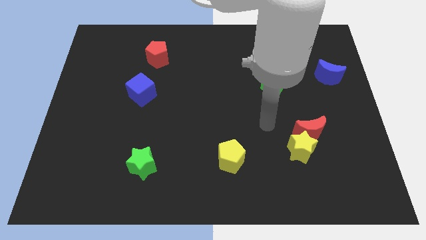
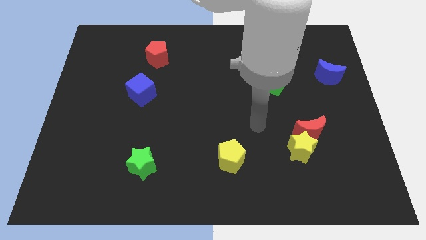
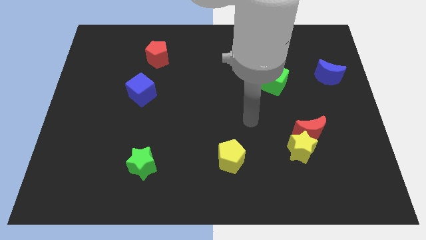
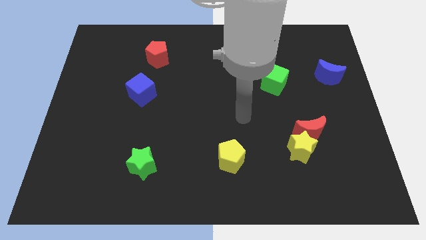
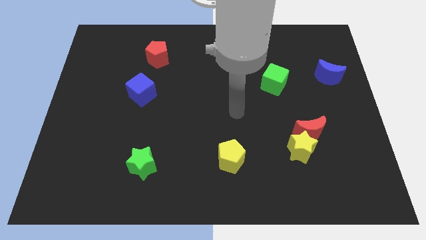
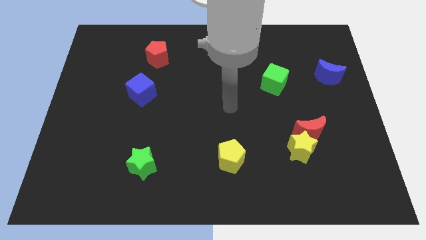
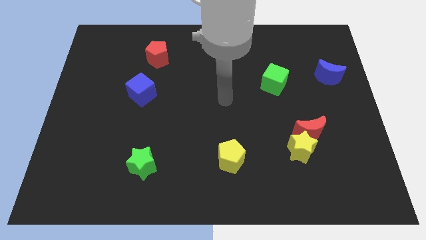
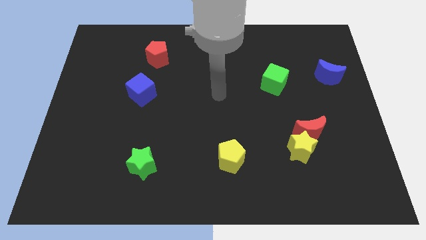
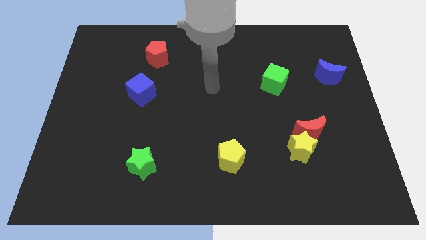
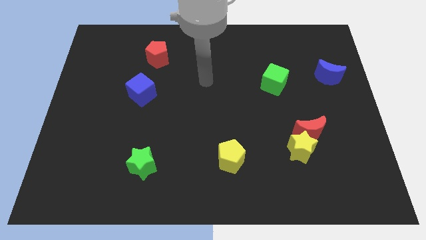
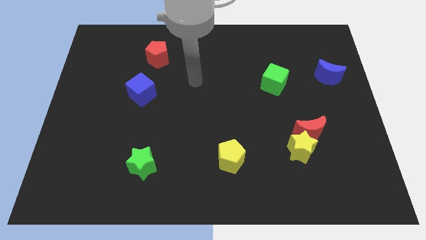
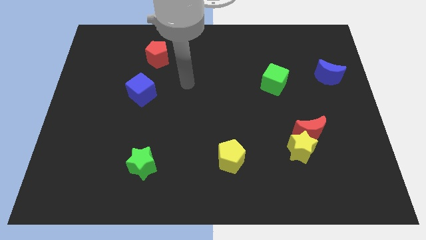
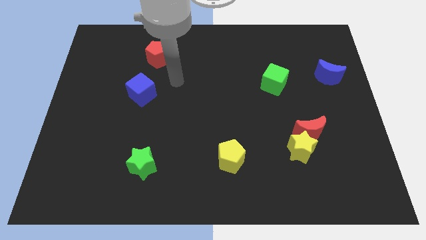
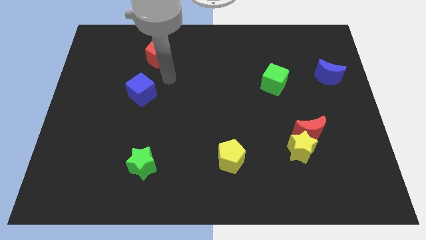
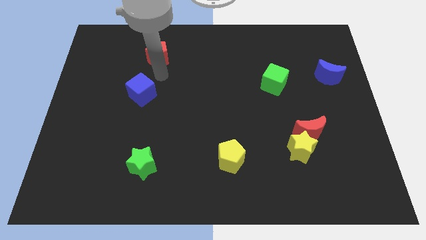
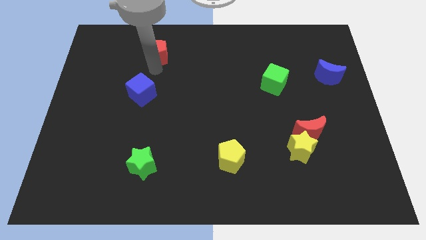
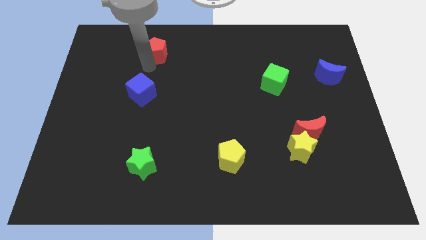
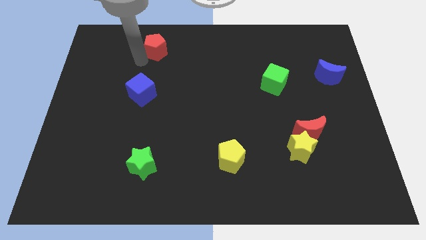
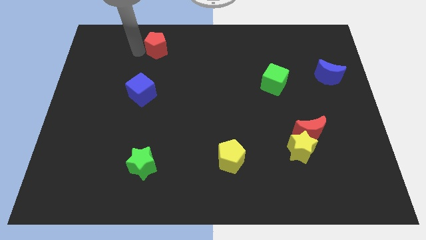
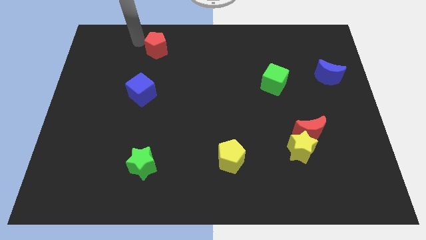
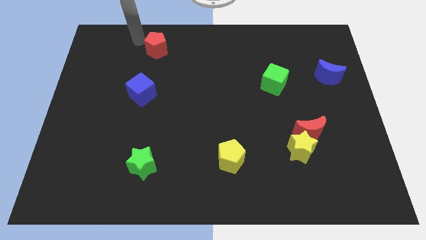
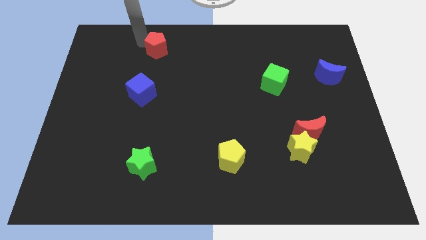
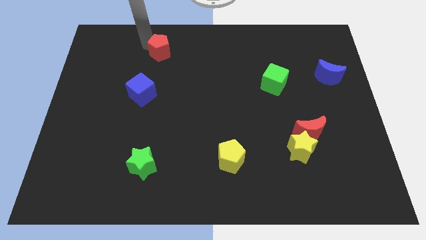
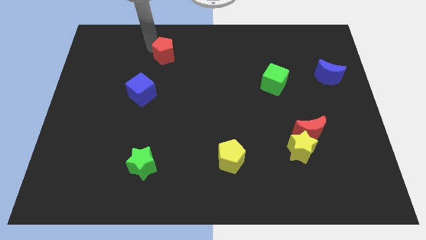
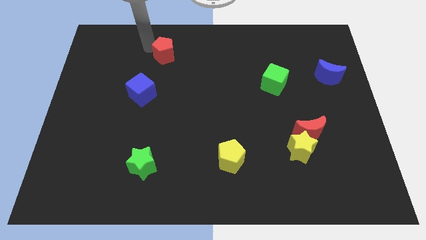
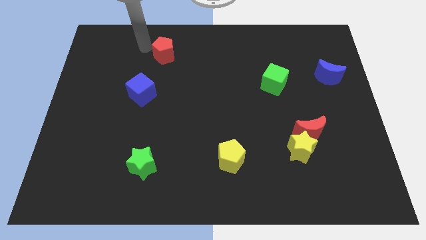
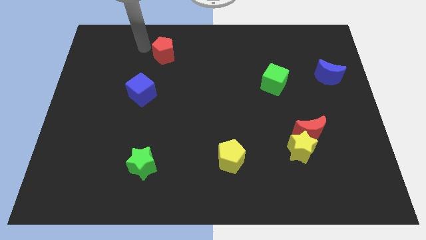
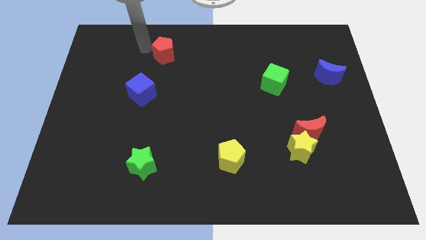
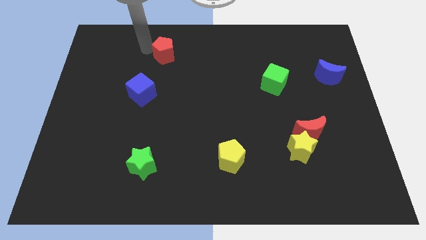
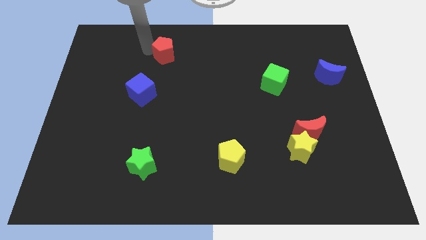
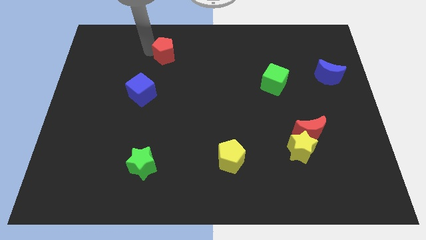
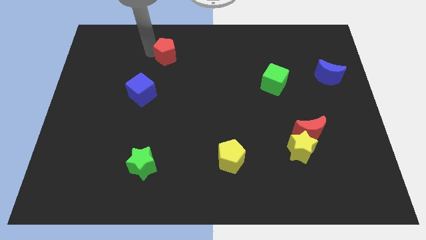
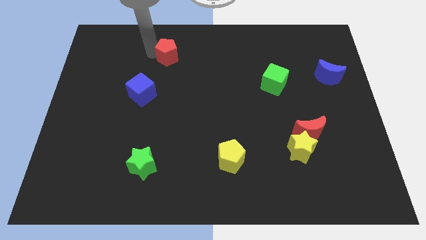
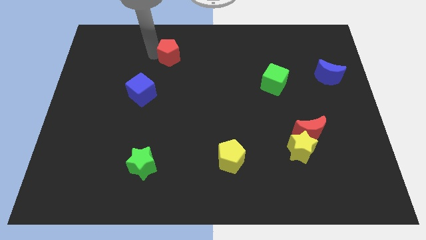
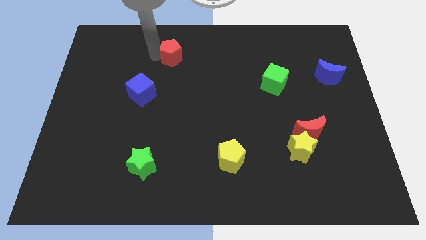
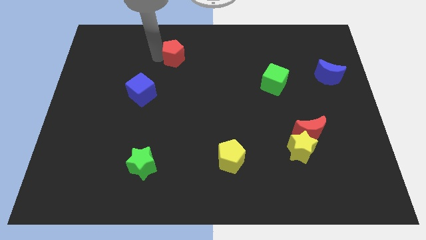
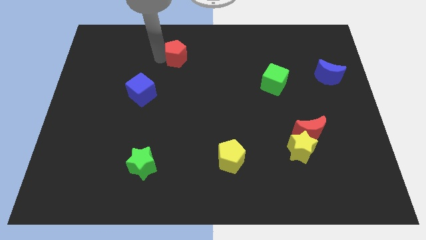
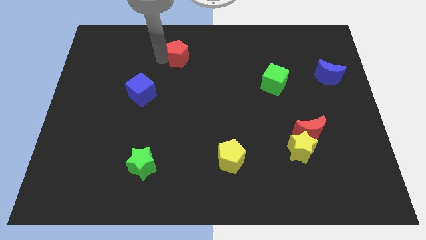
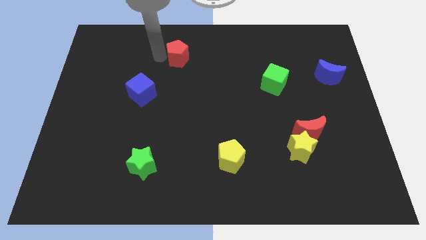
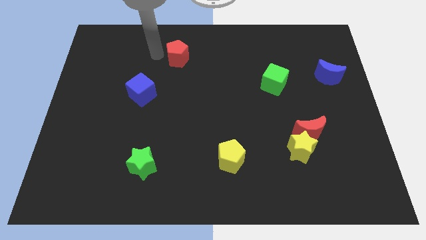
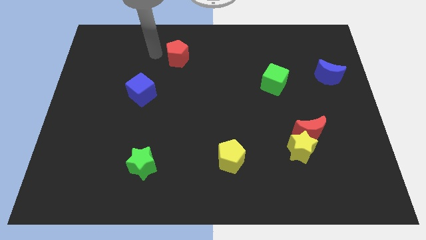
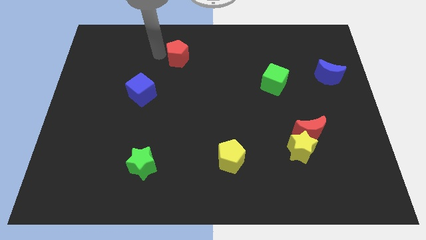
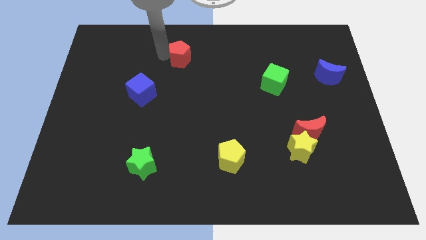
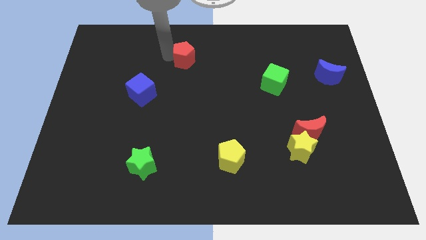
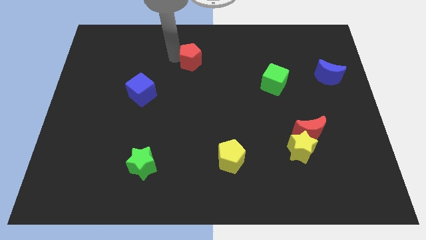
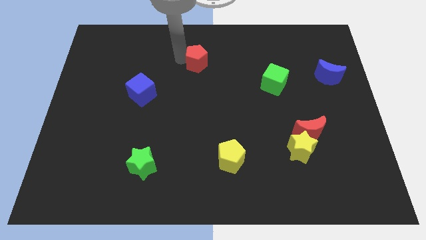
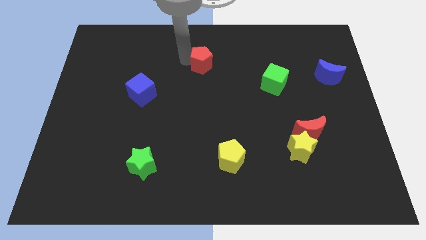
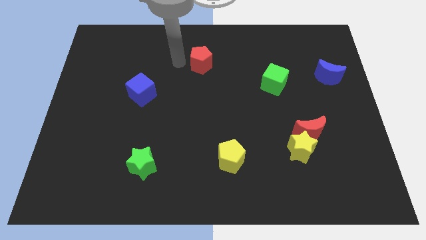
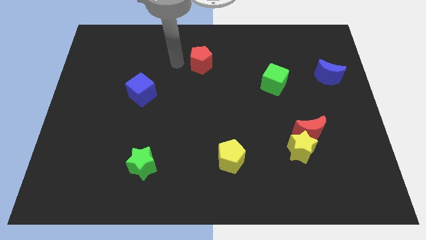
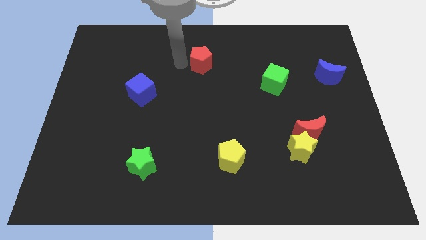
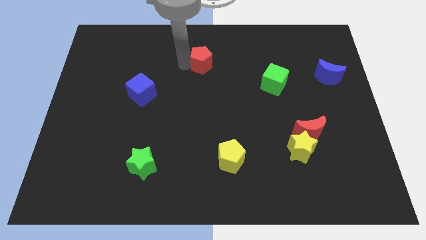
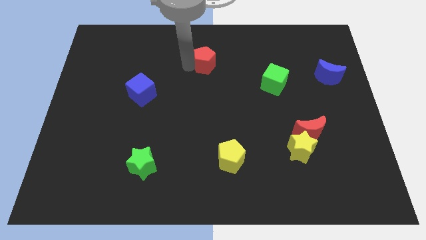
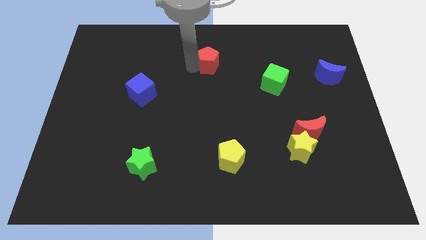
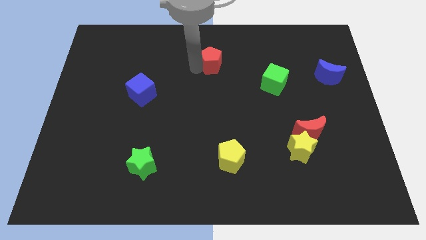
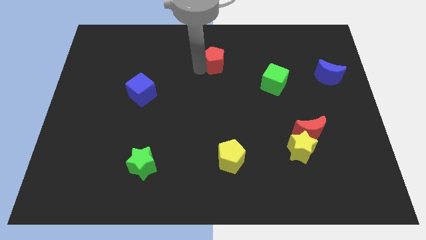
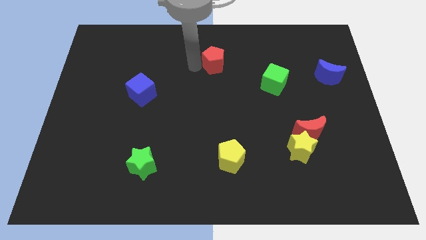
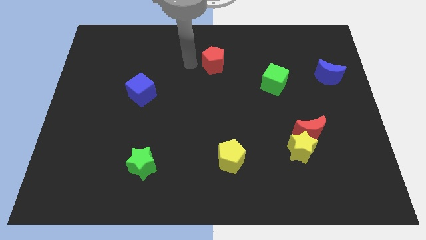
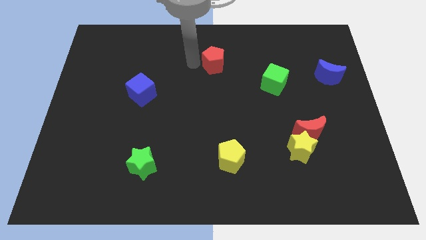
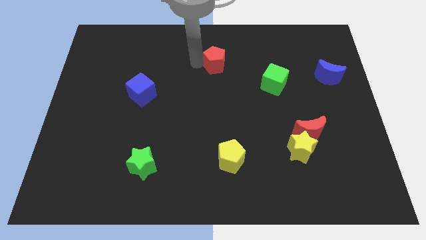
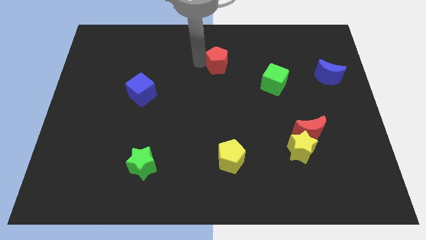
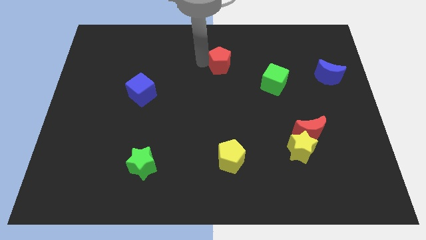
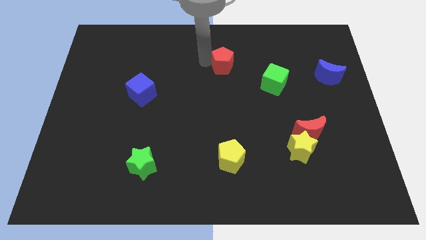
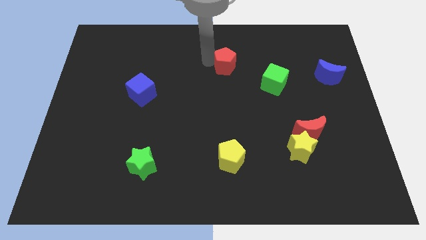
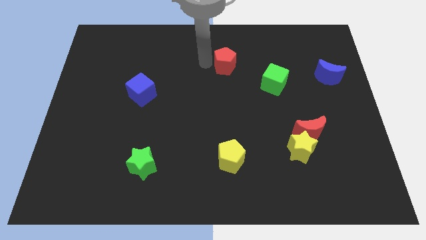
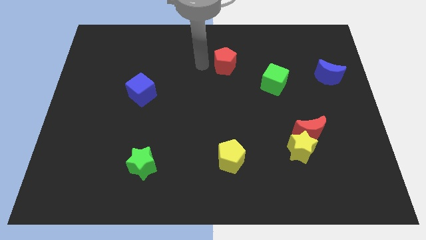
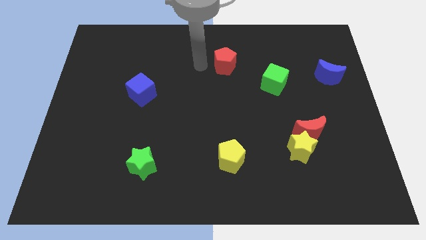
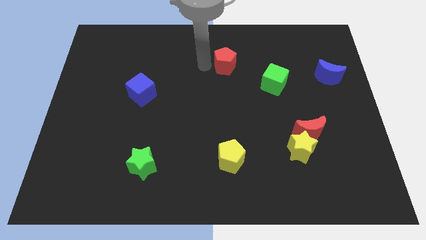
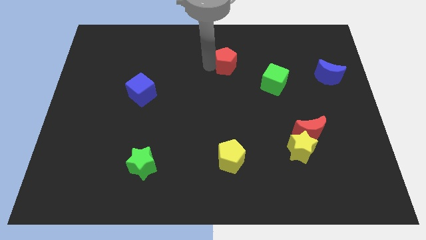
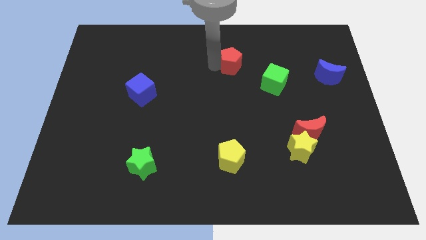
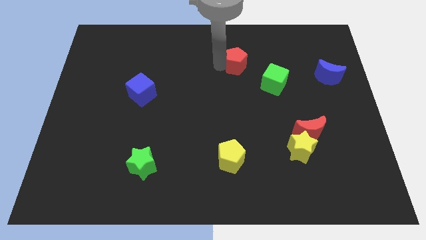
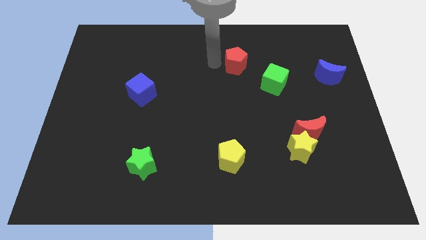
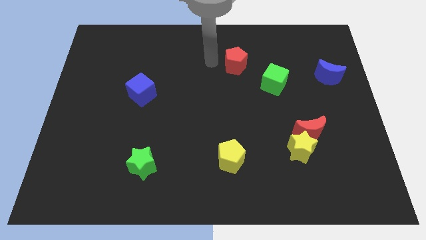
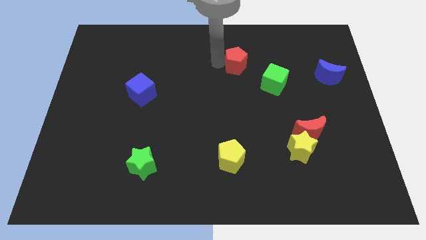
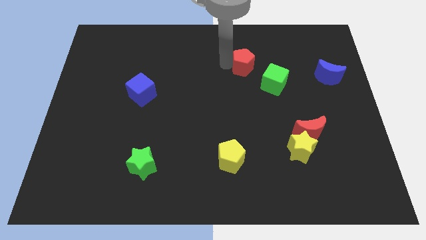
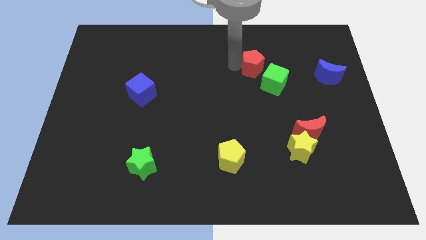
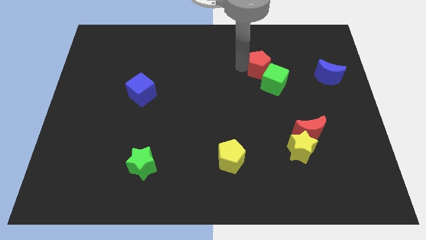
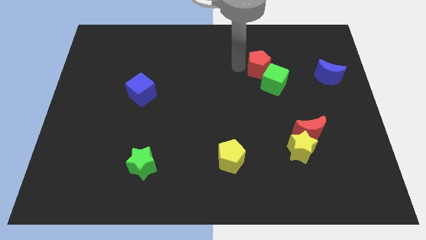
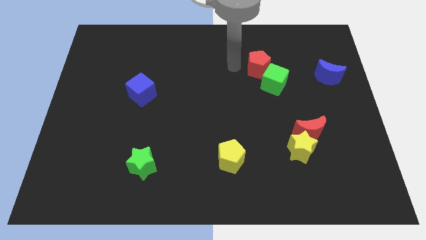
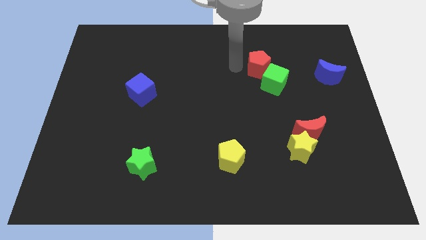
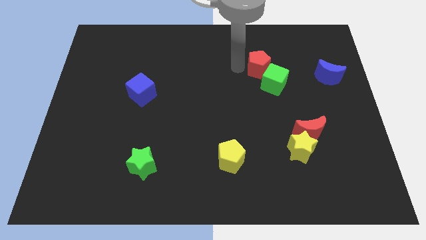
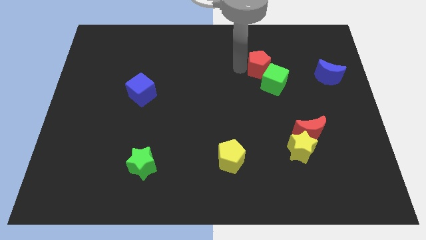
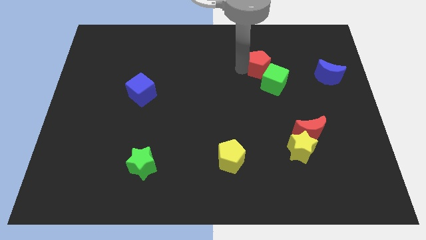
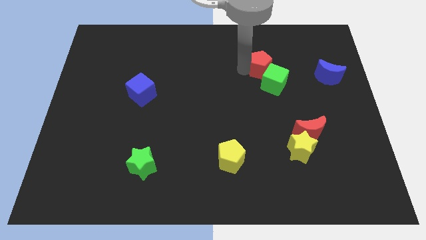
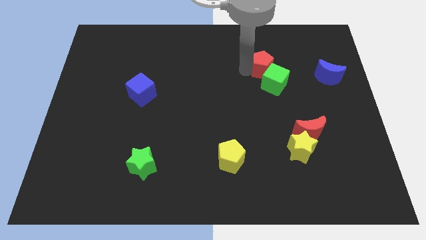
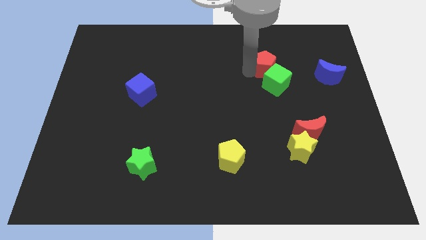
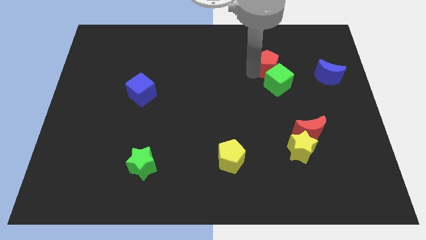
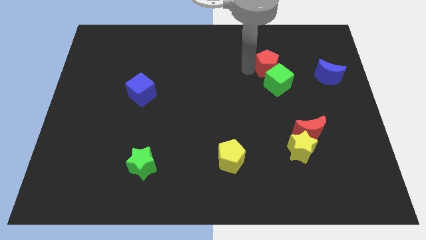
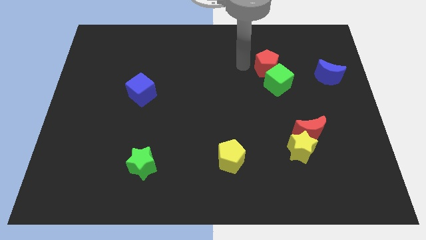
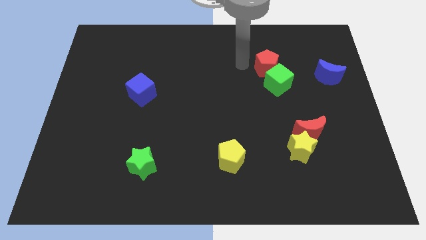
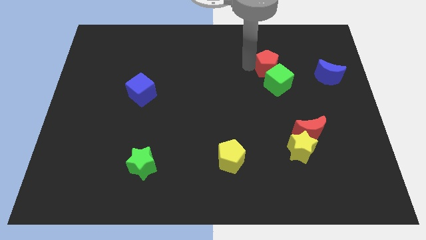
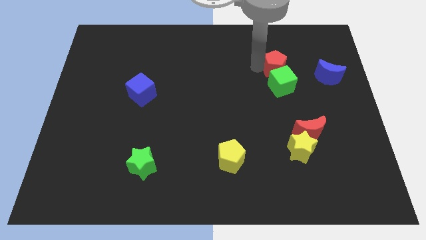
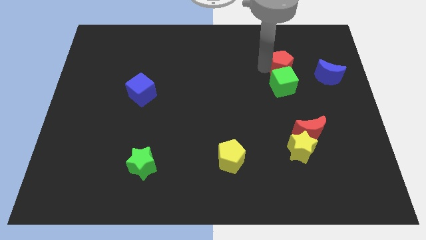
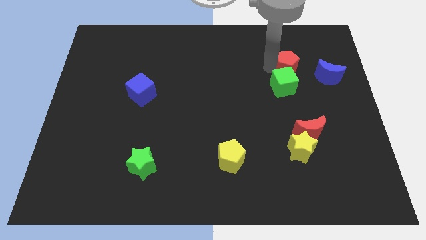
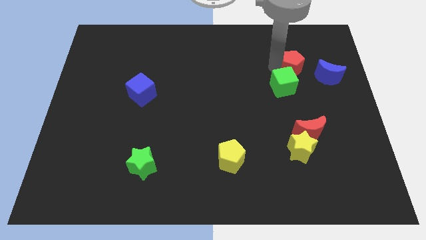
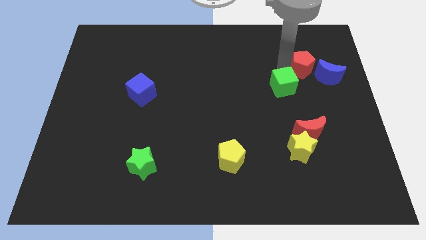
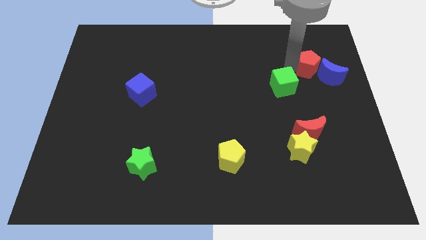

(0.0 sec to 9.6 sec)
push the red pentagon next to the blue moon
